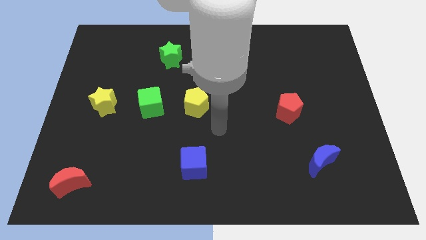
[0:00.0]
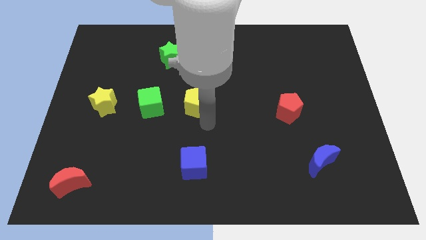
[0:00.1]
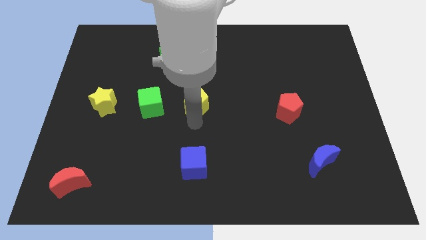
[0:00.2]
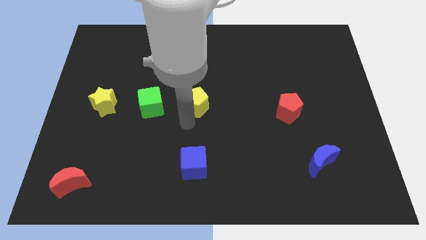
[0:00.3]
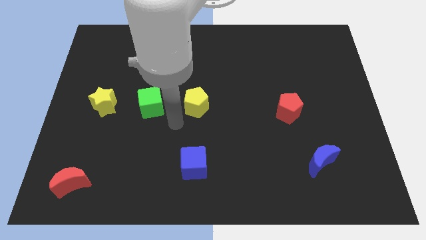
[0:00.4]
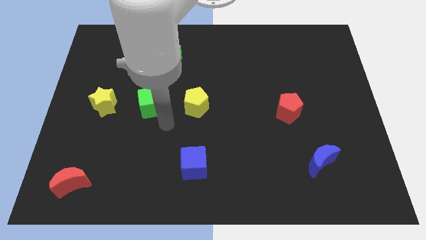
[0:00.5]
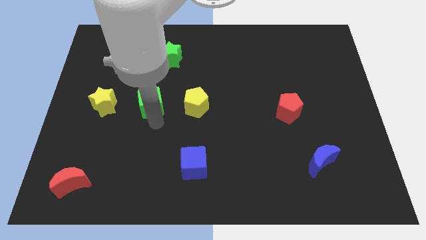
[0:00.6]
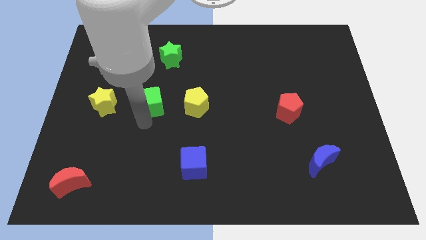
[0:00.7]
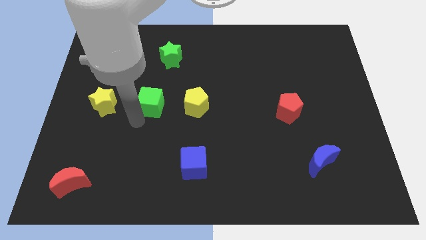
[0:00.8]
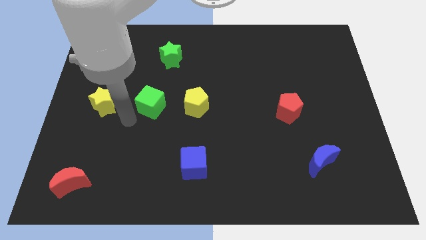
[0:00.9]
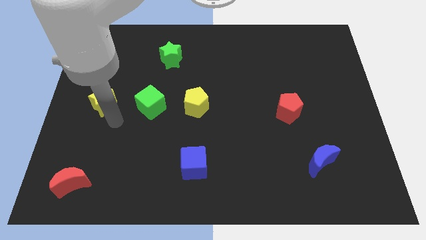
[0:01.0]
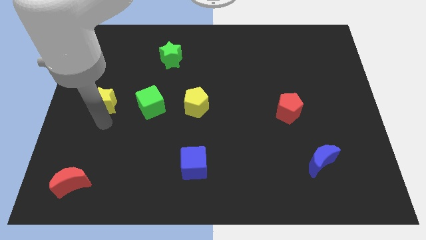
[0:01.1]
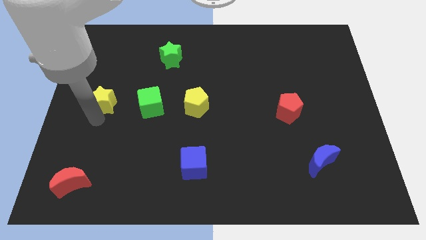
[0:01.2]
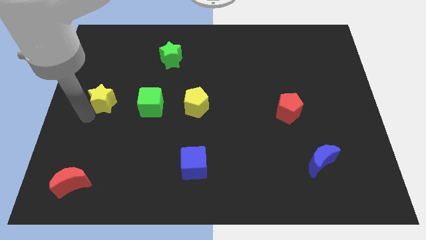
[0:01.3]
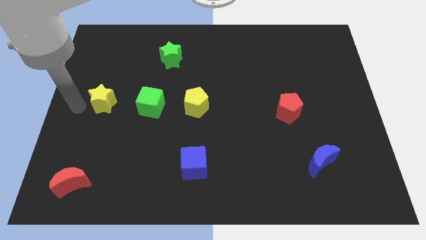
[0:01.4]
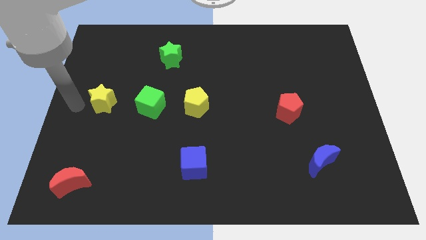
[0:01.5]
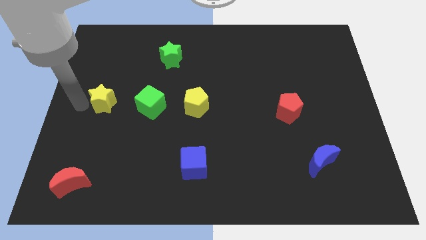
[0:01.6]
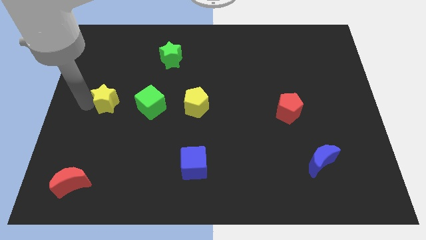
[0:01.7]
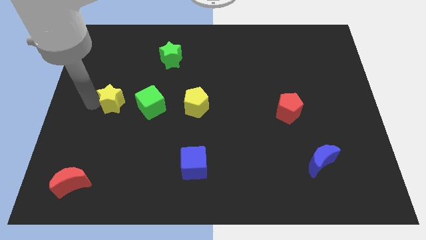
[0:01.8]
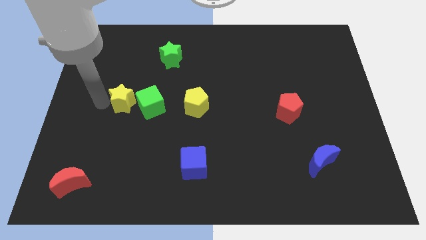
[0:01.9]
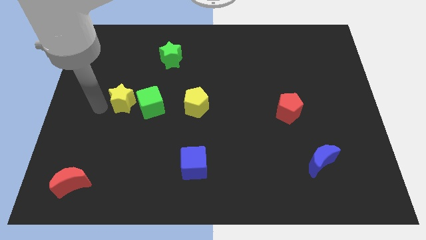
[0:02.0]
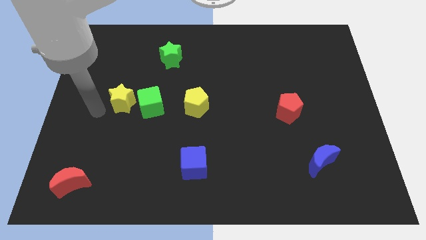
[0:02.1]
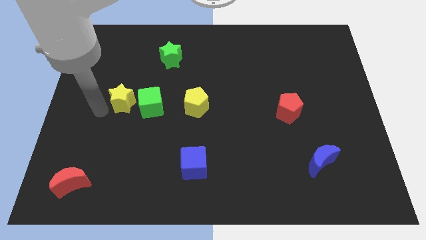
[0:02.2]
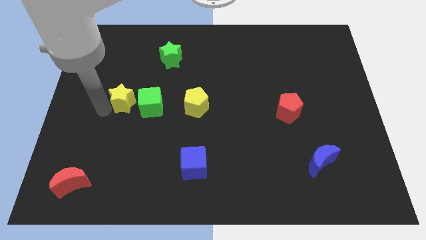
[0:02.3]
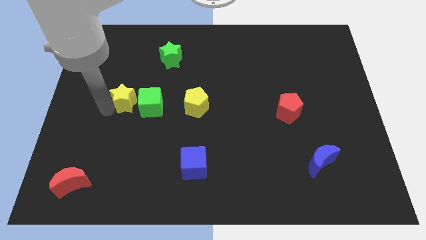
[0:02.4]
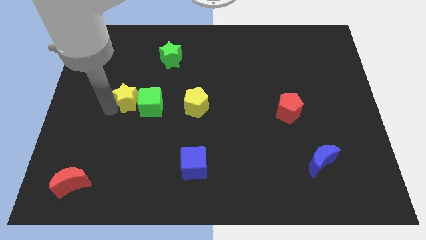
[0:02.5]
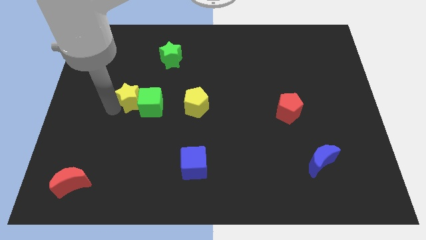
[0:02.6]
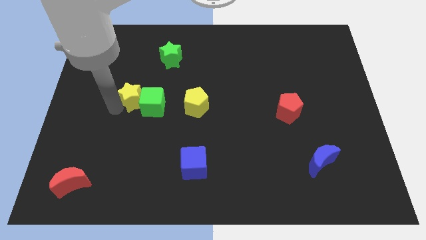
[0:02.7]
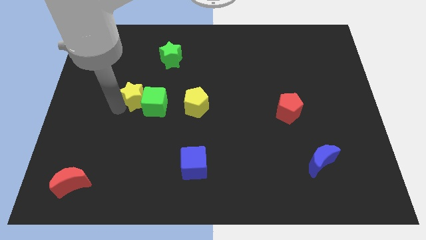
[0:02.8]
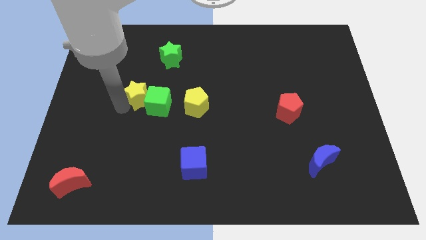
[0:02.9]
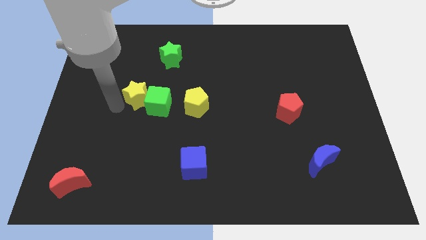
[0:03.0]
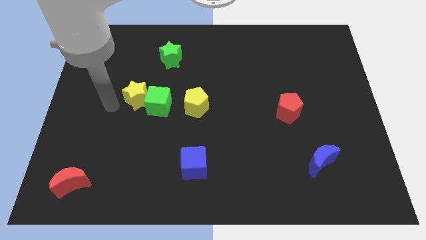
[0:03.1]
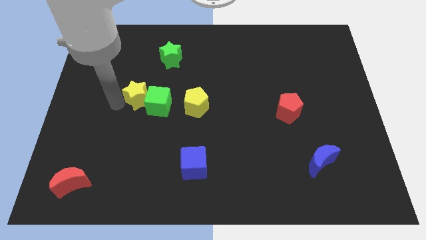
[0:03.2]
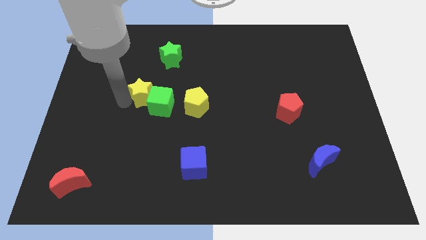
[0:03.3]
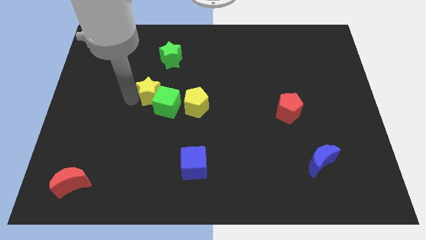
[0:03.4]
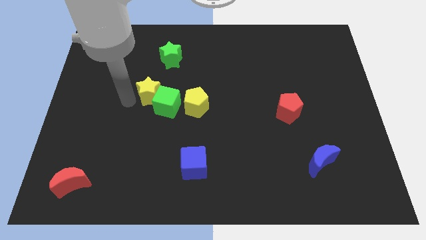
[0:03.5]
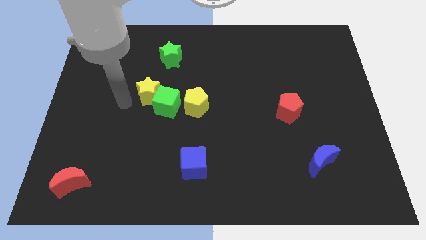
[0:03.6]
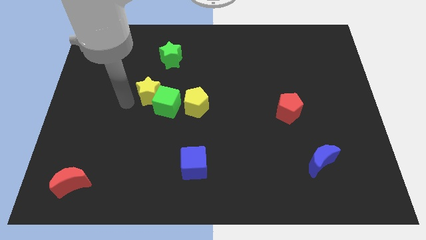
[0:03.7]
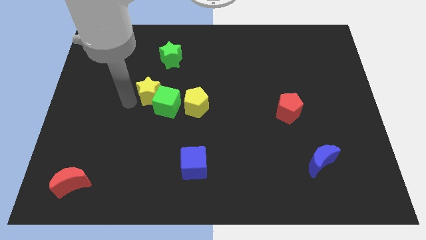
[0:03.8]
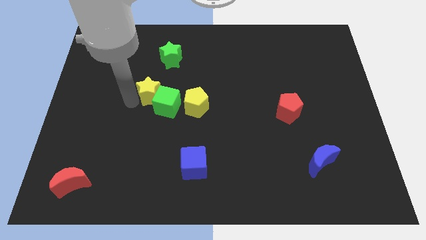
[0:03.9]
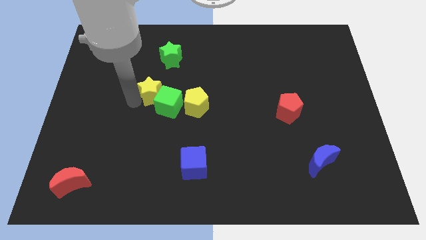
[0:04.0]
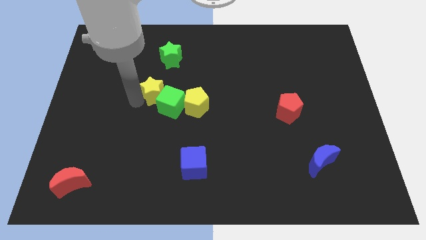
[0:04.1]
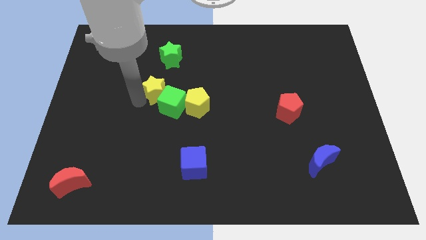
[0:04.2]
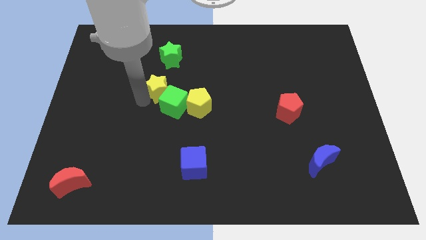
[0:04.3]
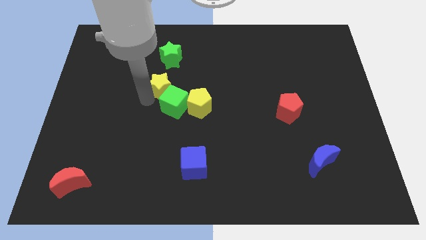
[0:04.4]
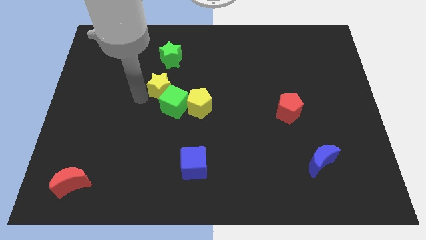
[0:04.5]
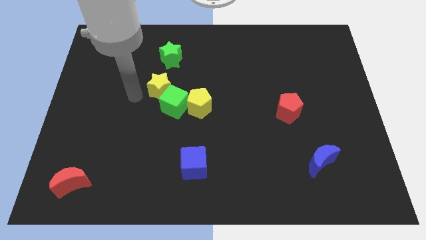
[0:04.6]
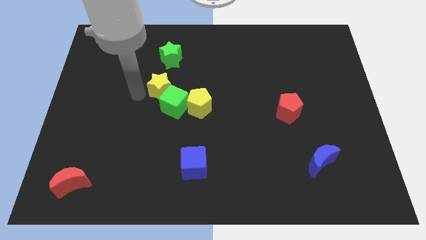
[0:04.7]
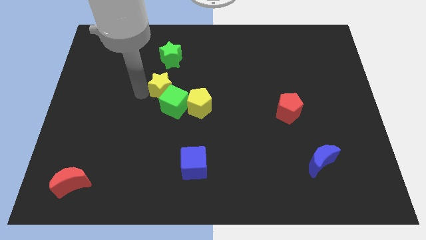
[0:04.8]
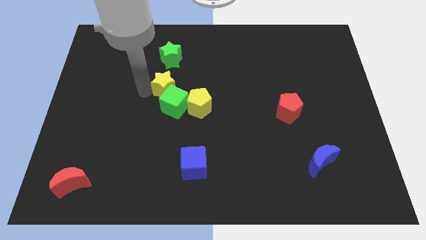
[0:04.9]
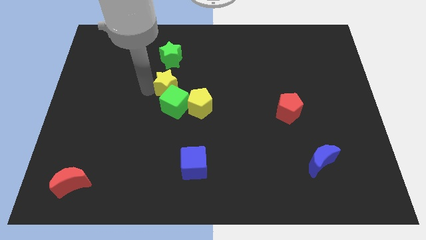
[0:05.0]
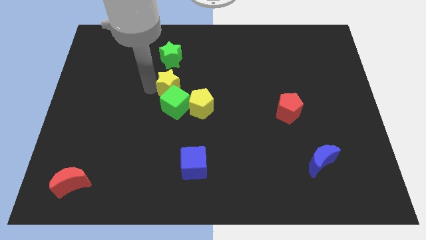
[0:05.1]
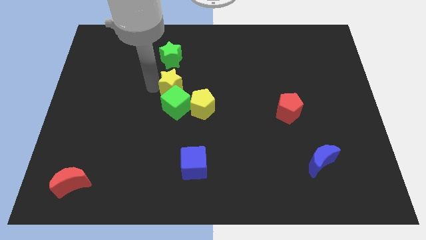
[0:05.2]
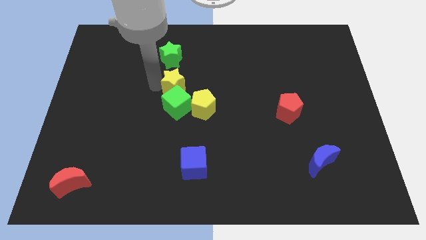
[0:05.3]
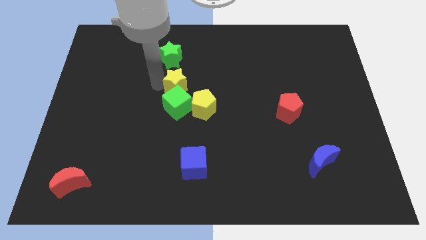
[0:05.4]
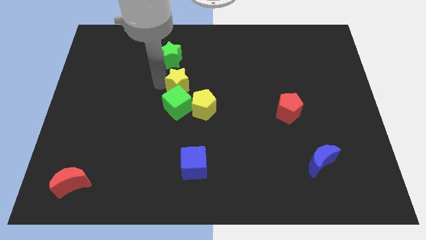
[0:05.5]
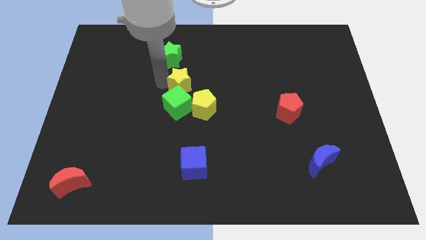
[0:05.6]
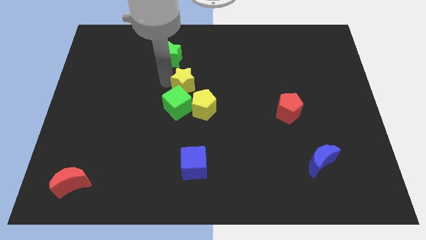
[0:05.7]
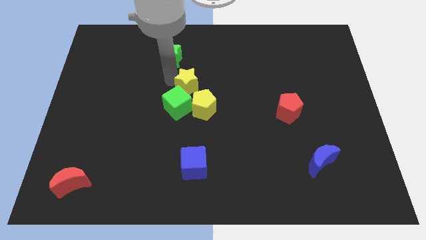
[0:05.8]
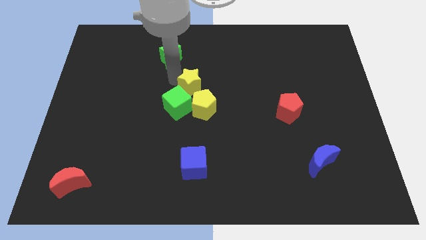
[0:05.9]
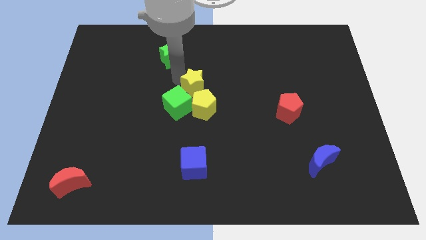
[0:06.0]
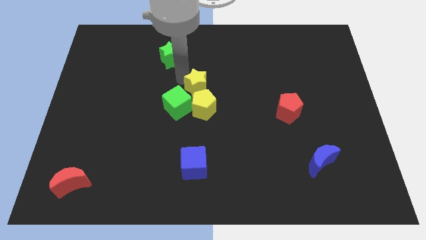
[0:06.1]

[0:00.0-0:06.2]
slide the yellow star to the right

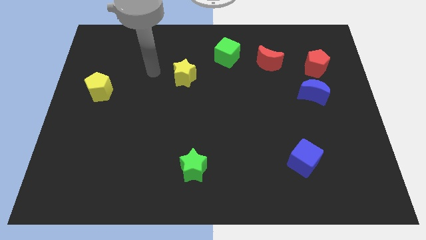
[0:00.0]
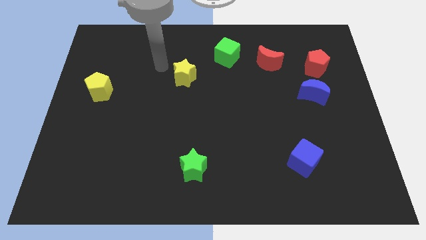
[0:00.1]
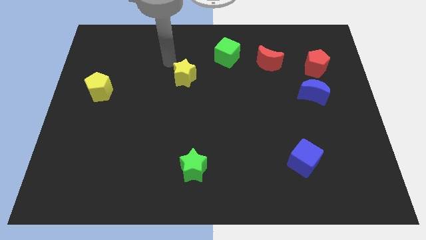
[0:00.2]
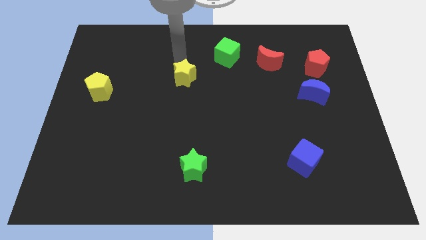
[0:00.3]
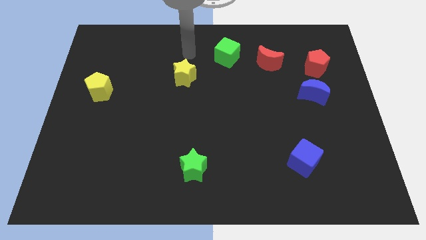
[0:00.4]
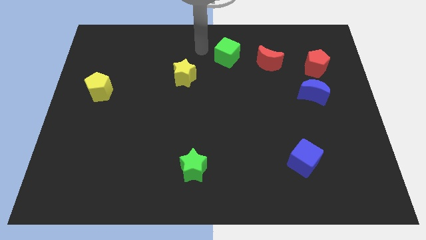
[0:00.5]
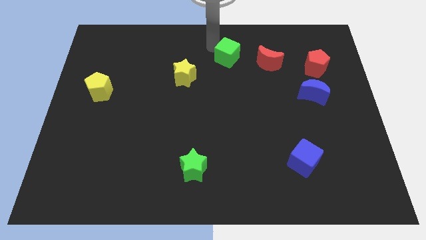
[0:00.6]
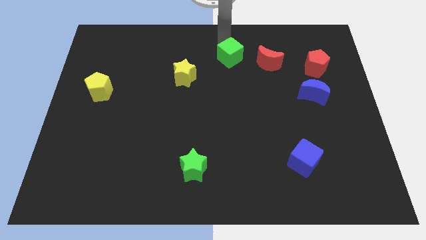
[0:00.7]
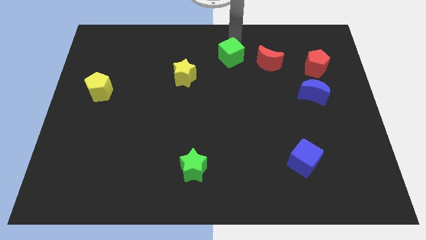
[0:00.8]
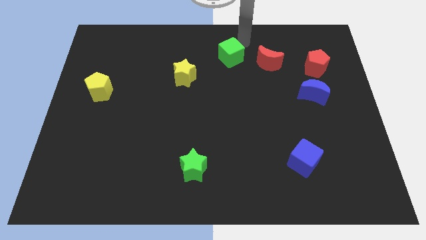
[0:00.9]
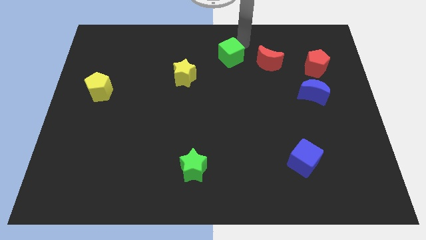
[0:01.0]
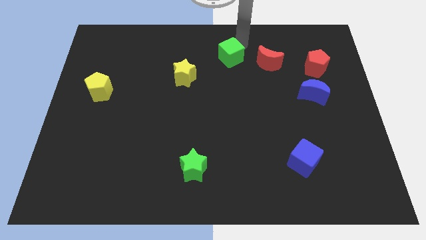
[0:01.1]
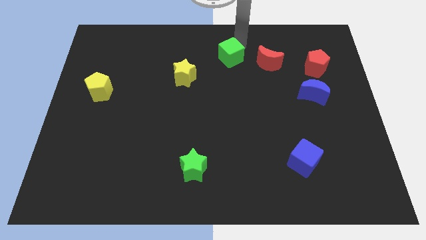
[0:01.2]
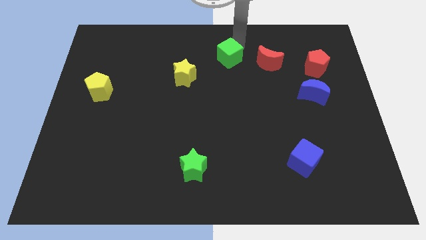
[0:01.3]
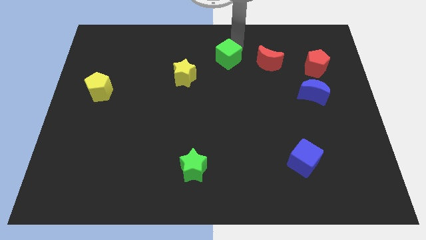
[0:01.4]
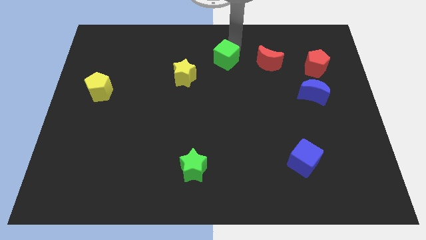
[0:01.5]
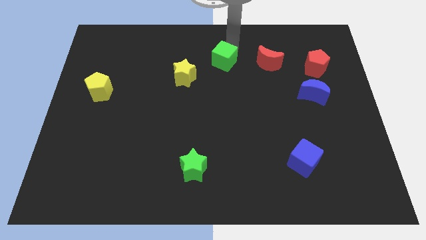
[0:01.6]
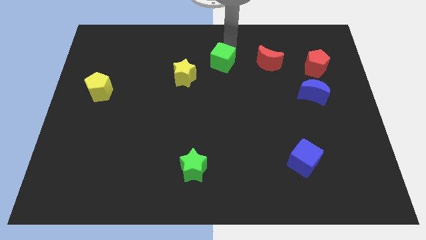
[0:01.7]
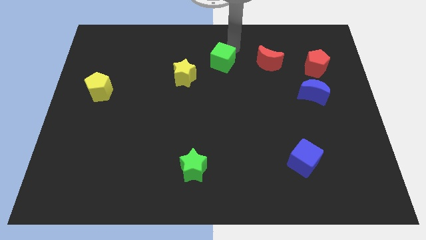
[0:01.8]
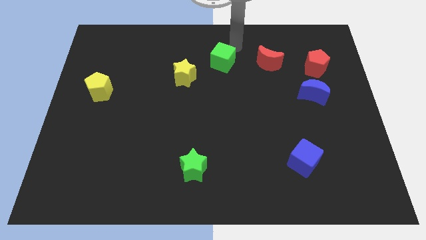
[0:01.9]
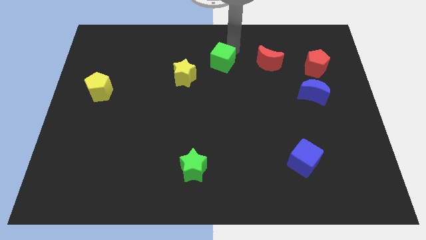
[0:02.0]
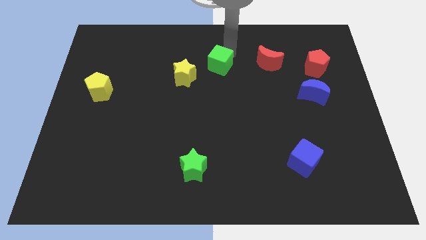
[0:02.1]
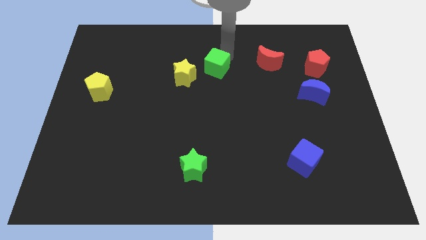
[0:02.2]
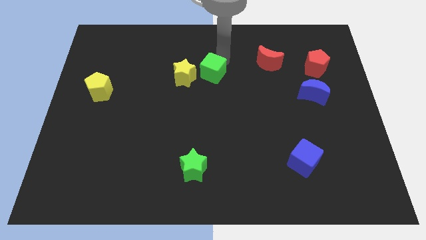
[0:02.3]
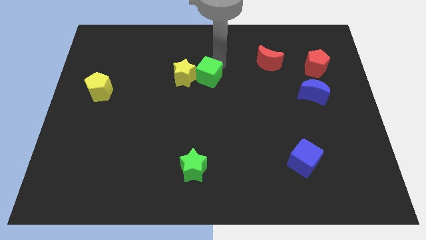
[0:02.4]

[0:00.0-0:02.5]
move the green cube slightly down and then to the left
